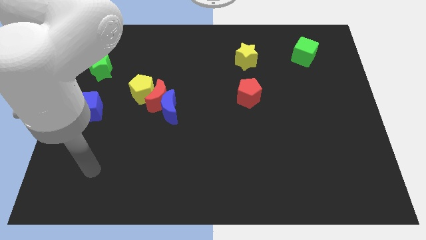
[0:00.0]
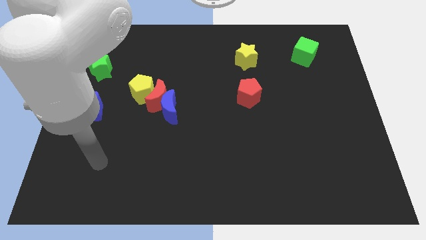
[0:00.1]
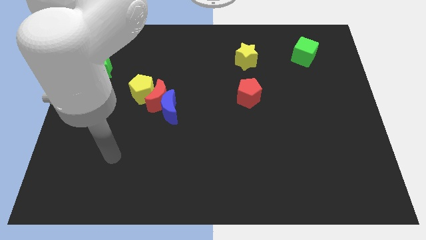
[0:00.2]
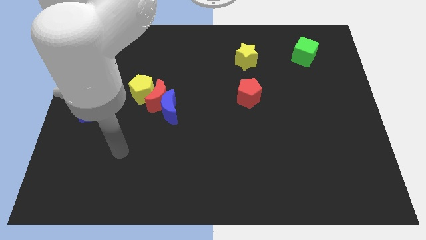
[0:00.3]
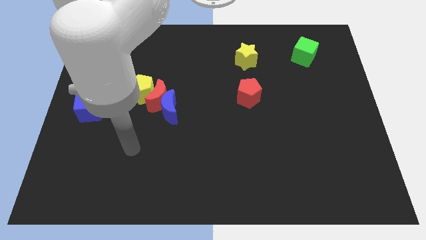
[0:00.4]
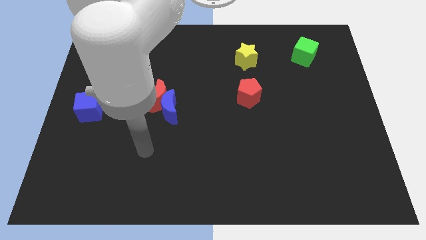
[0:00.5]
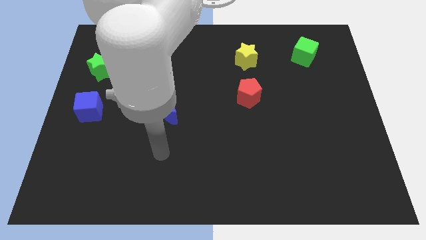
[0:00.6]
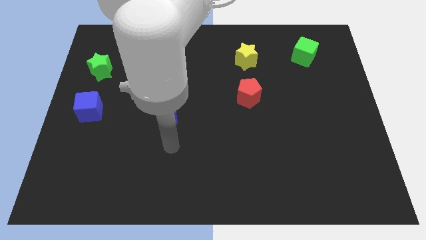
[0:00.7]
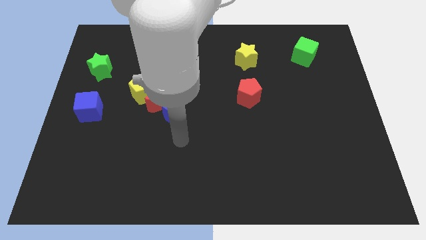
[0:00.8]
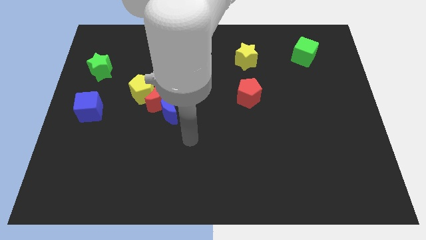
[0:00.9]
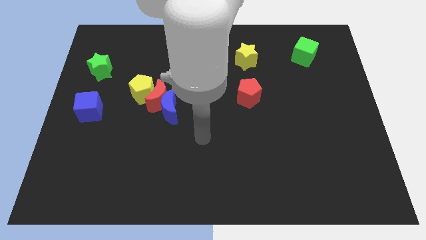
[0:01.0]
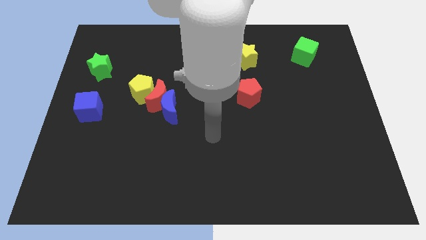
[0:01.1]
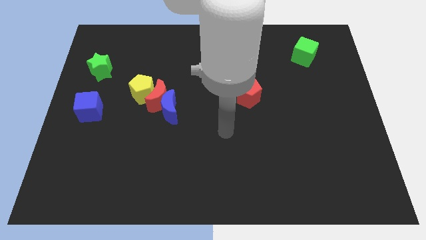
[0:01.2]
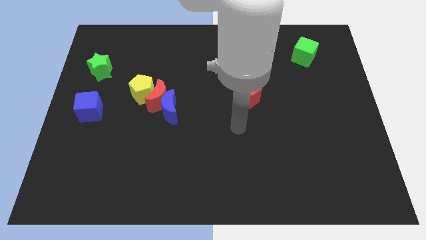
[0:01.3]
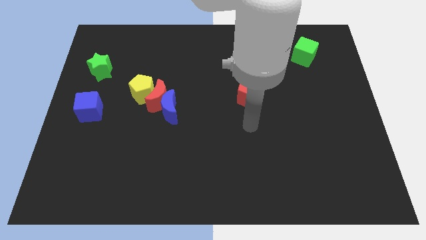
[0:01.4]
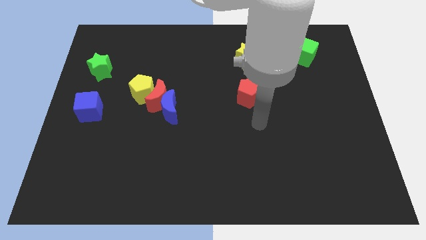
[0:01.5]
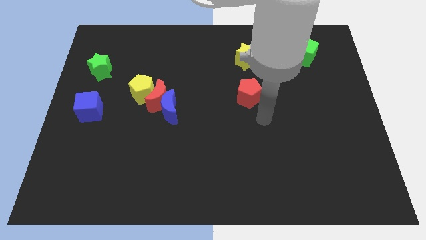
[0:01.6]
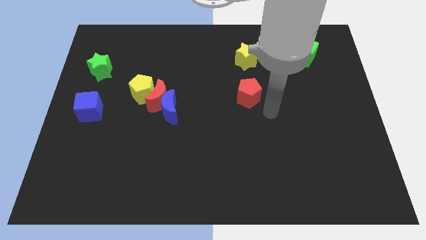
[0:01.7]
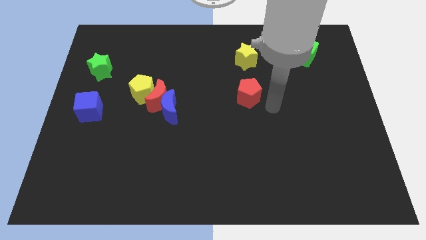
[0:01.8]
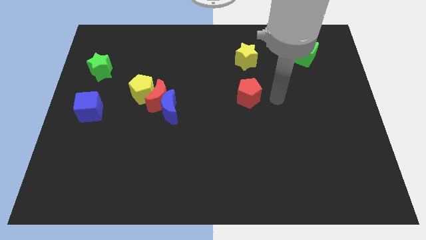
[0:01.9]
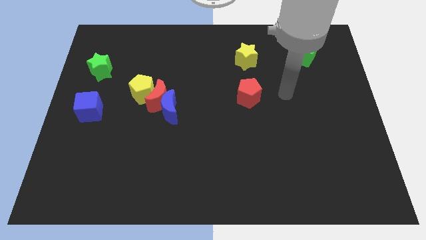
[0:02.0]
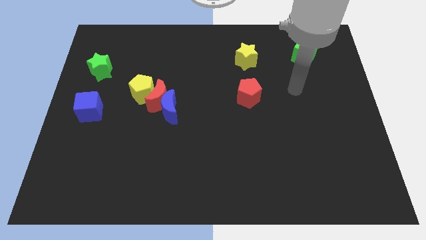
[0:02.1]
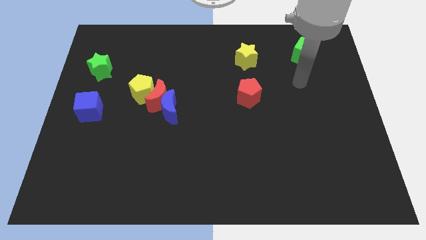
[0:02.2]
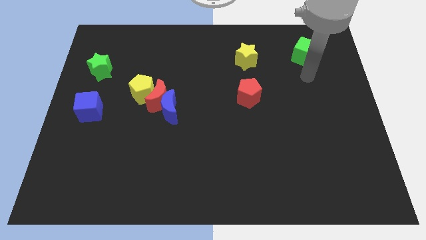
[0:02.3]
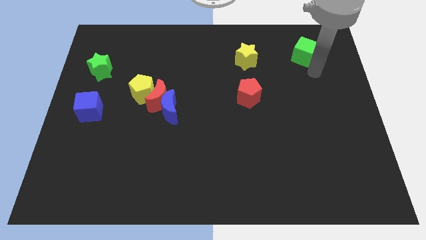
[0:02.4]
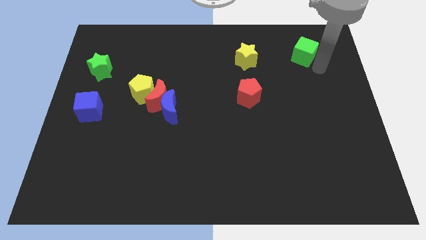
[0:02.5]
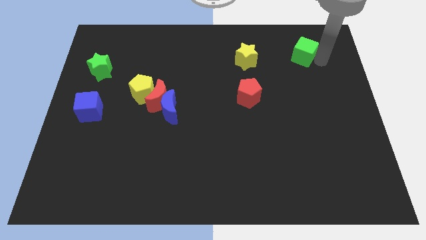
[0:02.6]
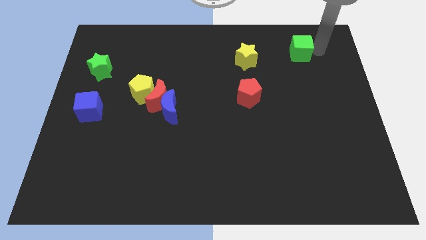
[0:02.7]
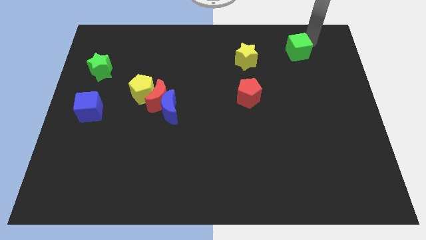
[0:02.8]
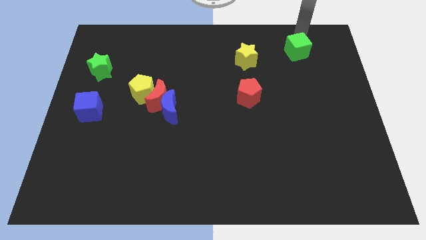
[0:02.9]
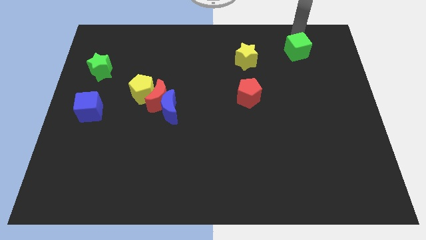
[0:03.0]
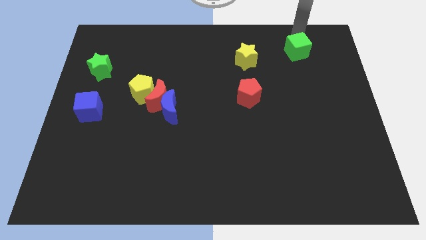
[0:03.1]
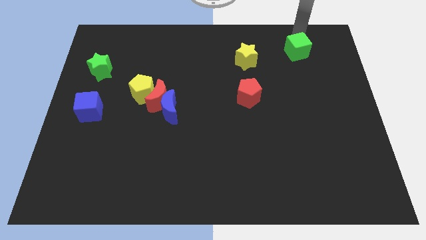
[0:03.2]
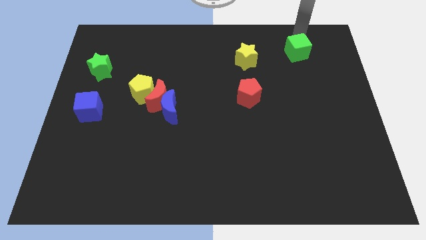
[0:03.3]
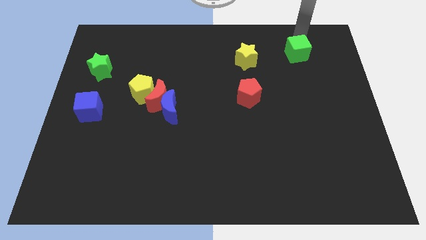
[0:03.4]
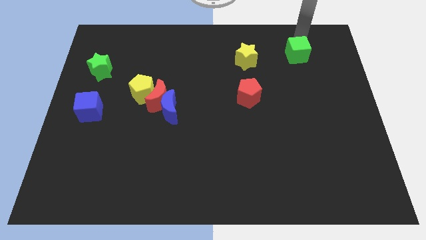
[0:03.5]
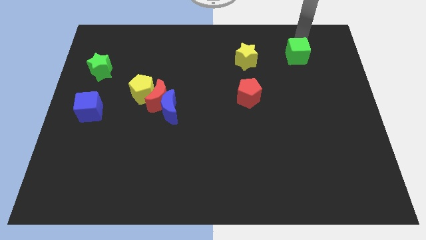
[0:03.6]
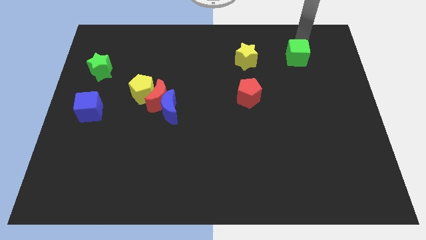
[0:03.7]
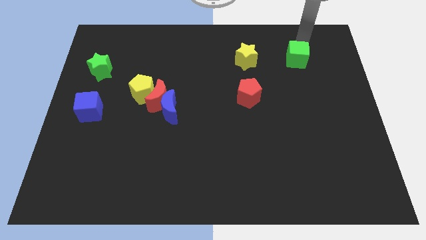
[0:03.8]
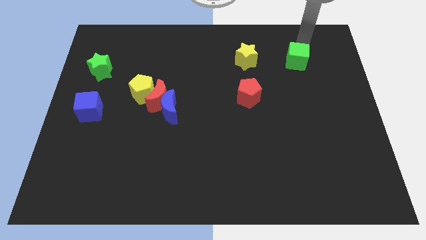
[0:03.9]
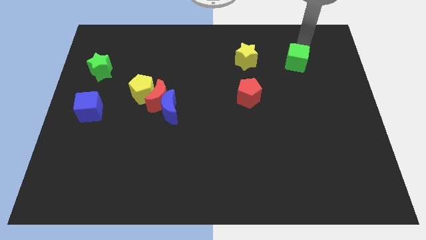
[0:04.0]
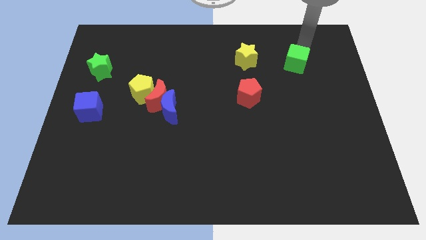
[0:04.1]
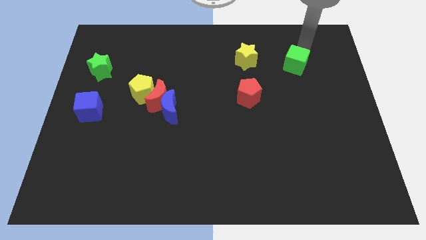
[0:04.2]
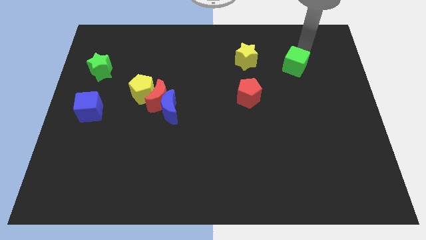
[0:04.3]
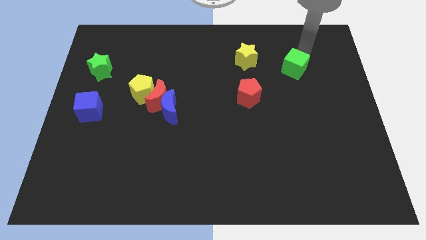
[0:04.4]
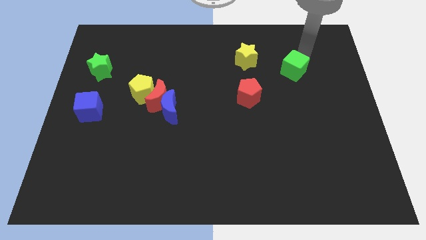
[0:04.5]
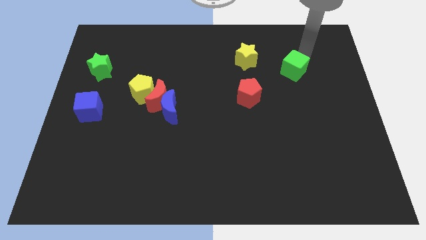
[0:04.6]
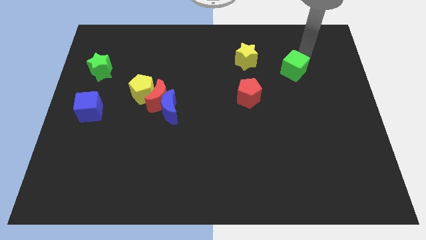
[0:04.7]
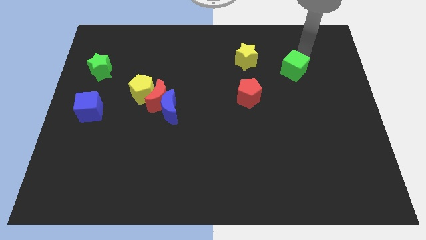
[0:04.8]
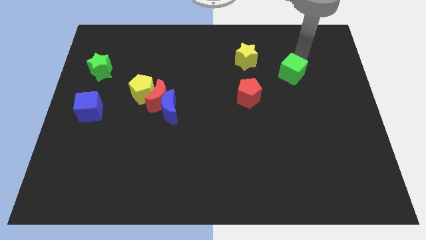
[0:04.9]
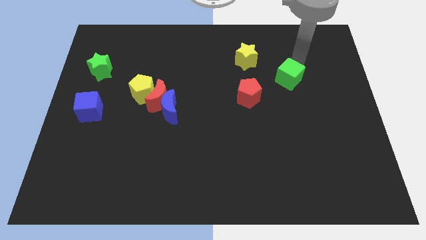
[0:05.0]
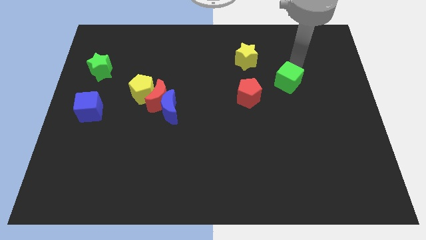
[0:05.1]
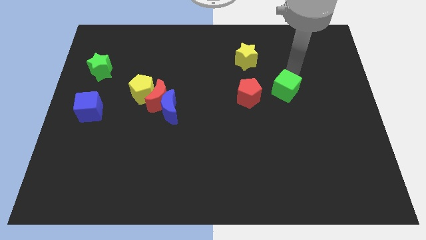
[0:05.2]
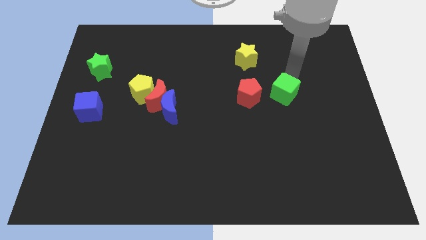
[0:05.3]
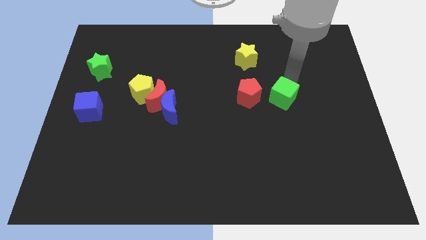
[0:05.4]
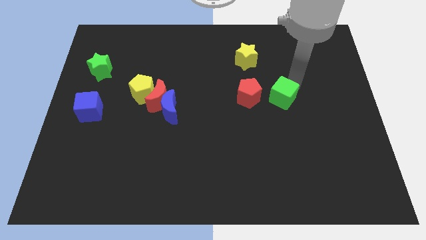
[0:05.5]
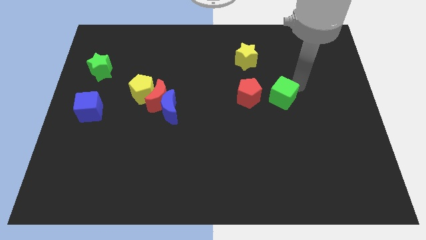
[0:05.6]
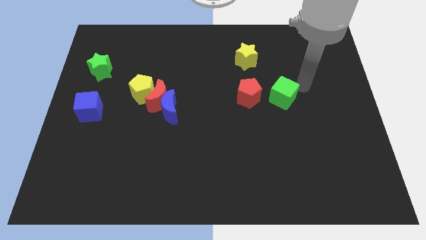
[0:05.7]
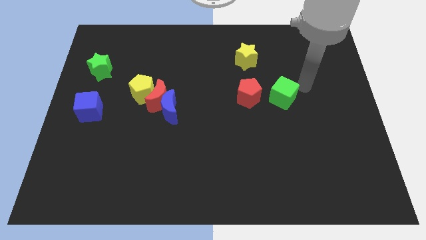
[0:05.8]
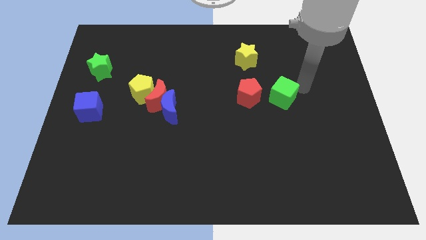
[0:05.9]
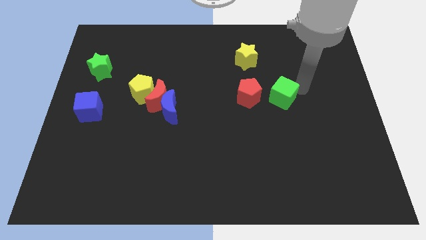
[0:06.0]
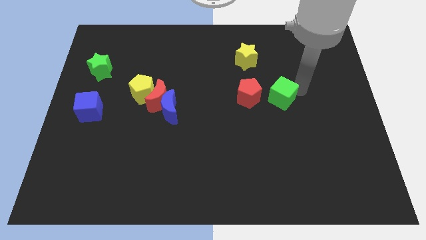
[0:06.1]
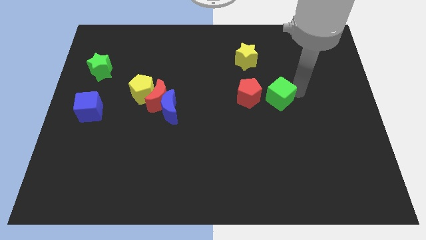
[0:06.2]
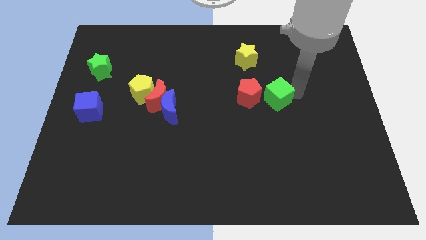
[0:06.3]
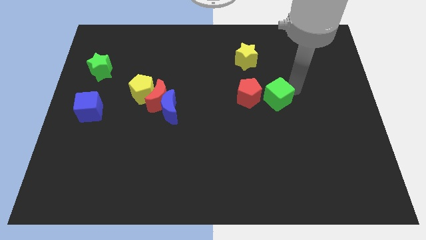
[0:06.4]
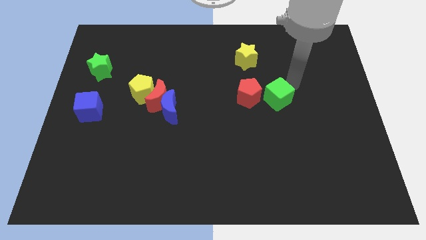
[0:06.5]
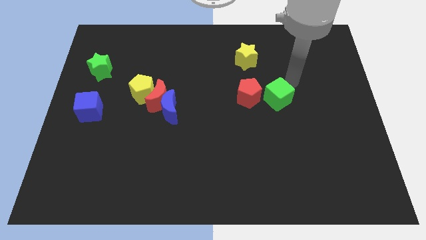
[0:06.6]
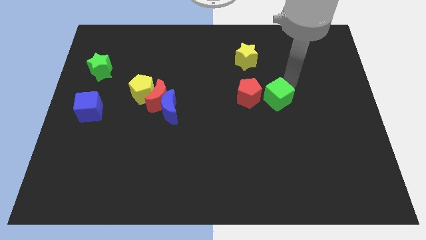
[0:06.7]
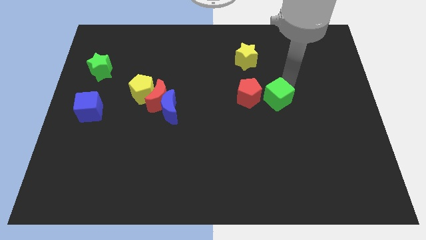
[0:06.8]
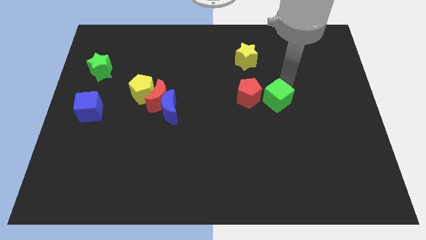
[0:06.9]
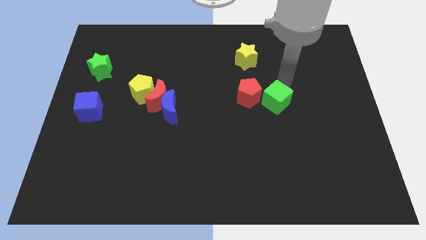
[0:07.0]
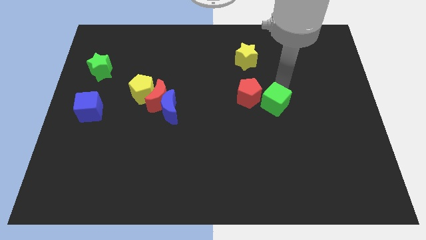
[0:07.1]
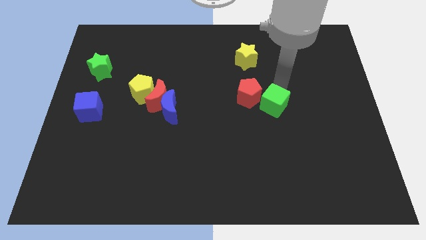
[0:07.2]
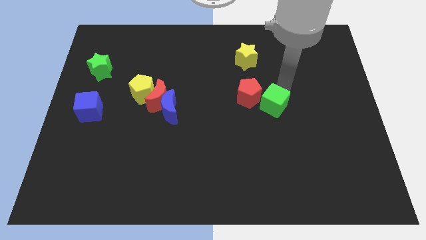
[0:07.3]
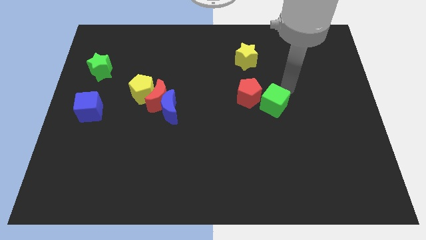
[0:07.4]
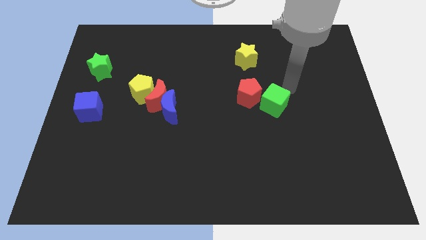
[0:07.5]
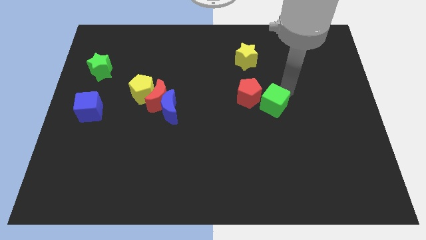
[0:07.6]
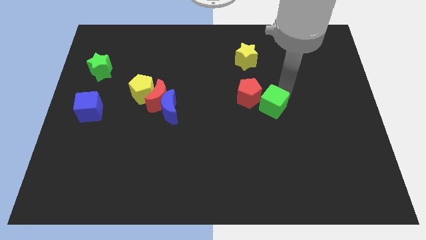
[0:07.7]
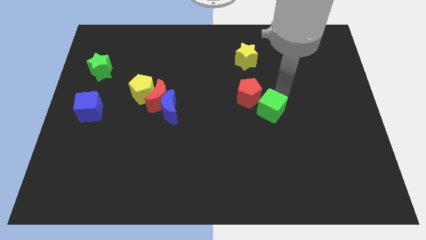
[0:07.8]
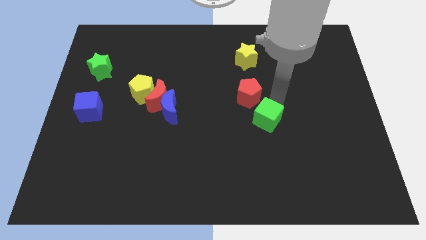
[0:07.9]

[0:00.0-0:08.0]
slide the green cube to the bottom of the red pentagon
